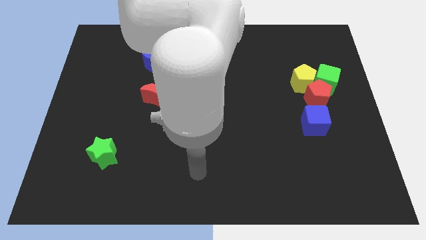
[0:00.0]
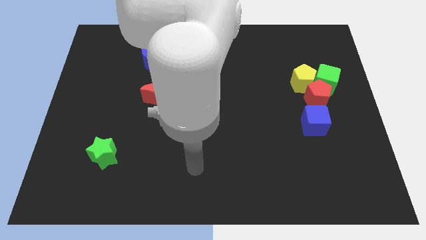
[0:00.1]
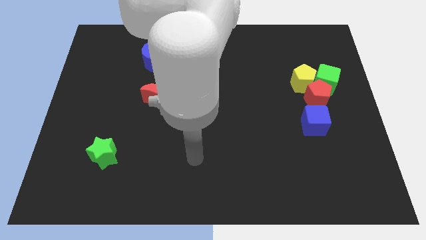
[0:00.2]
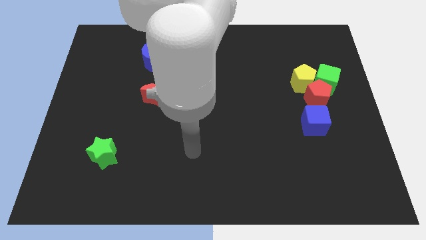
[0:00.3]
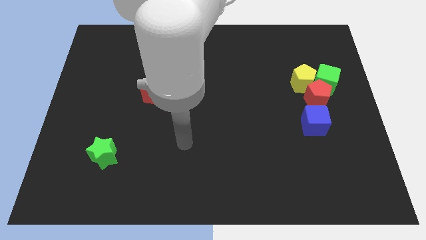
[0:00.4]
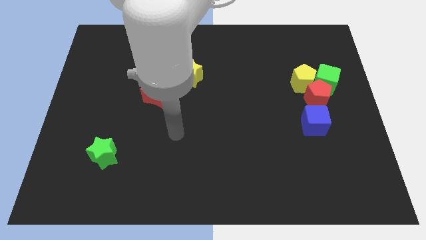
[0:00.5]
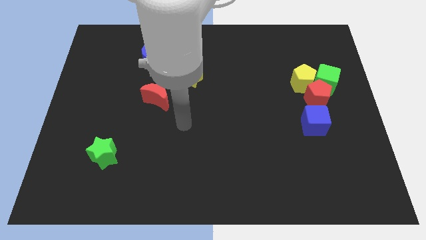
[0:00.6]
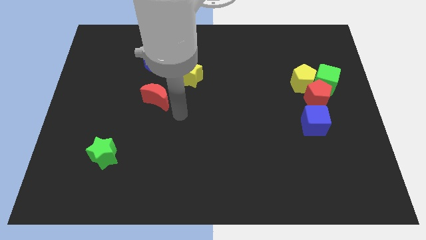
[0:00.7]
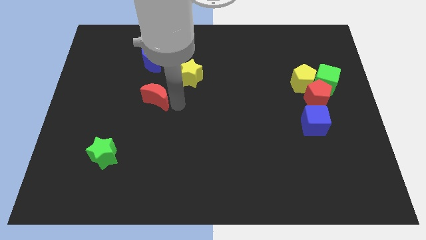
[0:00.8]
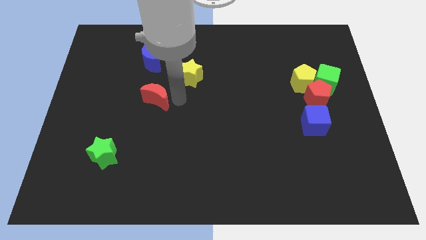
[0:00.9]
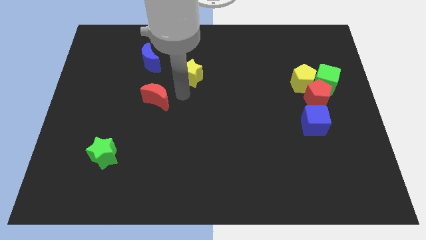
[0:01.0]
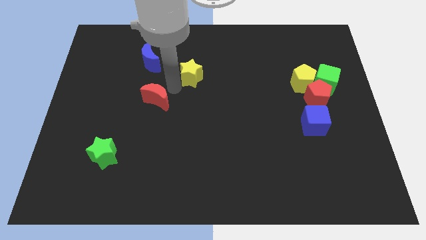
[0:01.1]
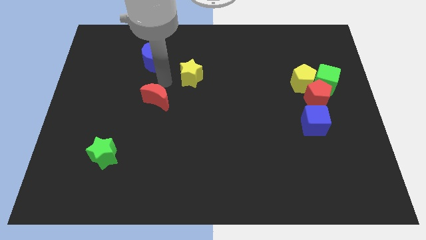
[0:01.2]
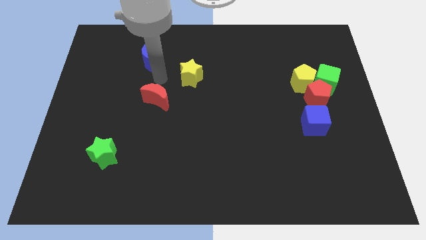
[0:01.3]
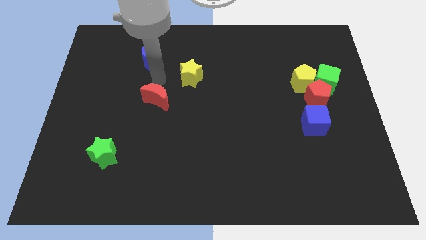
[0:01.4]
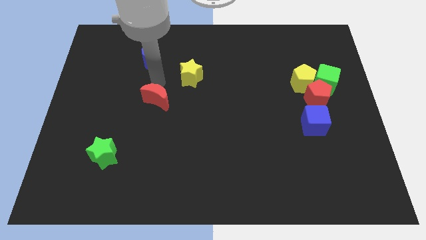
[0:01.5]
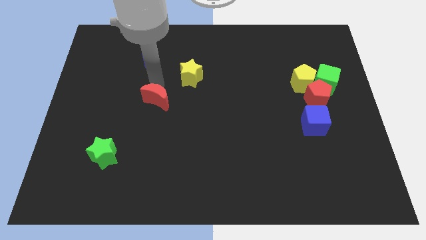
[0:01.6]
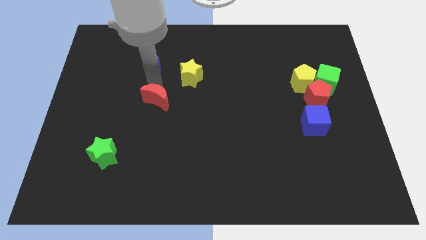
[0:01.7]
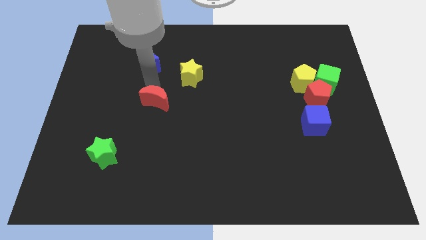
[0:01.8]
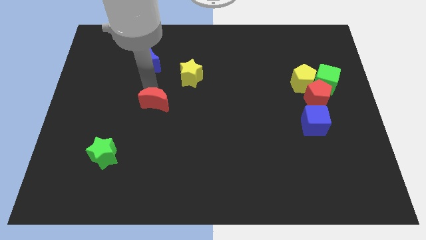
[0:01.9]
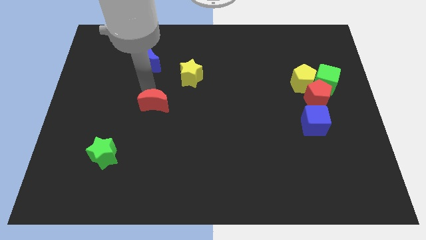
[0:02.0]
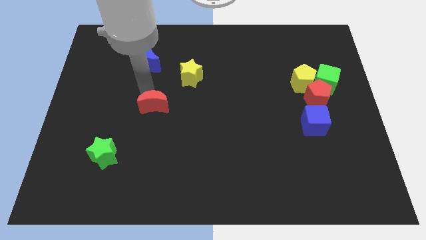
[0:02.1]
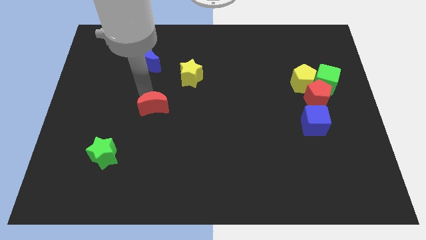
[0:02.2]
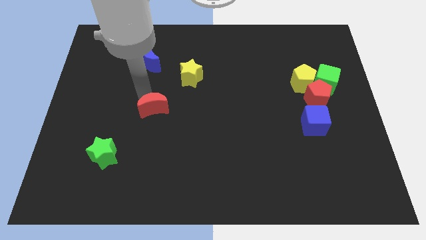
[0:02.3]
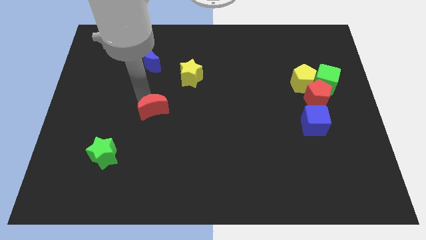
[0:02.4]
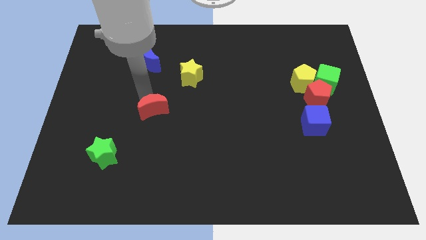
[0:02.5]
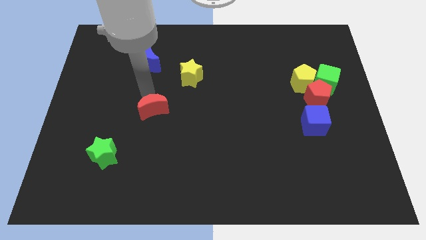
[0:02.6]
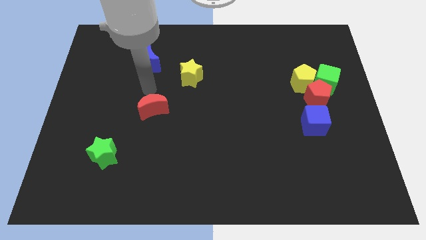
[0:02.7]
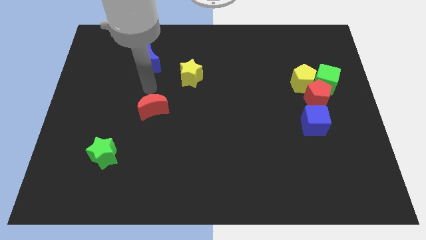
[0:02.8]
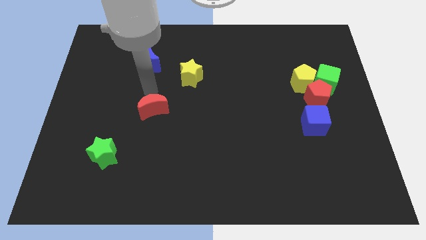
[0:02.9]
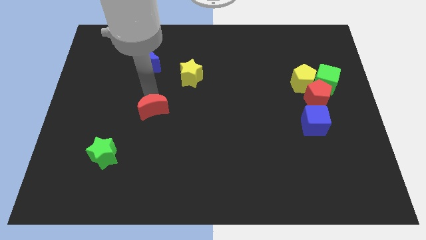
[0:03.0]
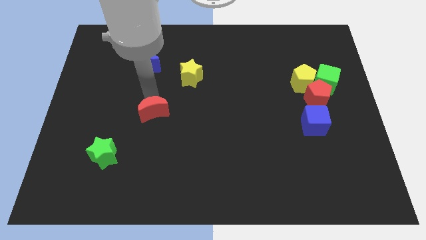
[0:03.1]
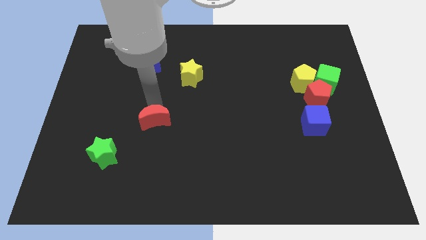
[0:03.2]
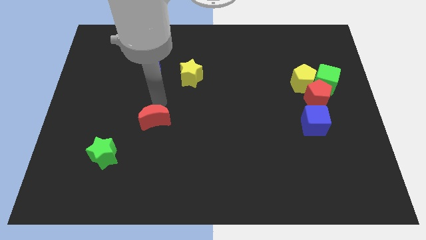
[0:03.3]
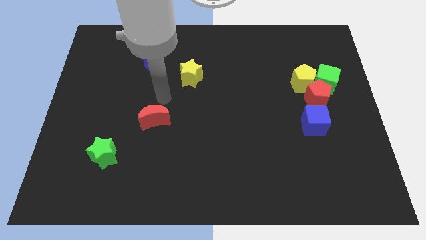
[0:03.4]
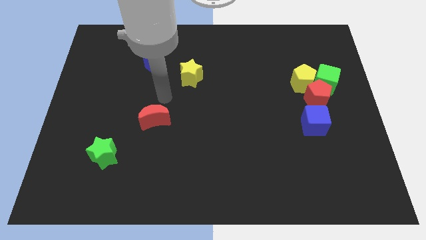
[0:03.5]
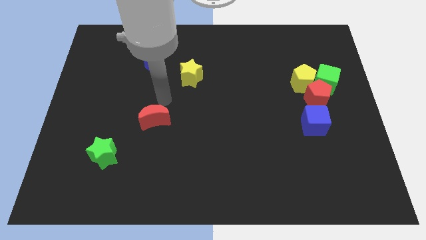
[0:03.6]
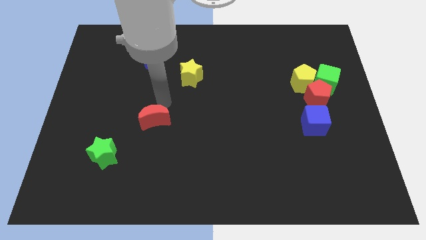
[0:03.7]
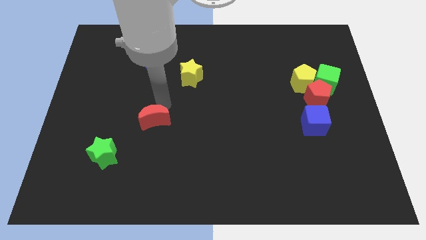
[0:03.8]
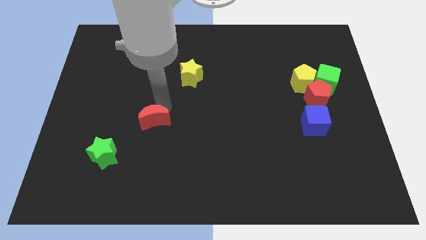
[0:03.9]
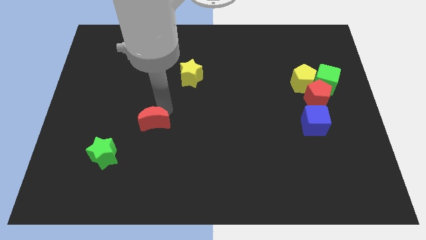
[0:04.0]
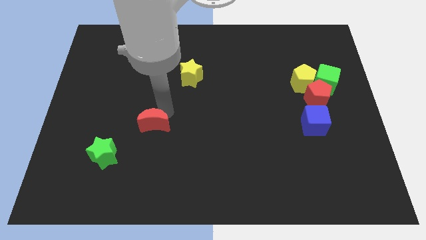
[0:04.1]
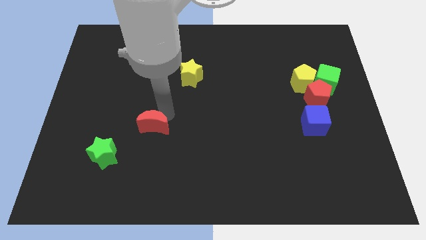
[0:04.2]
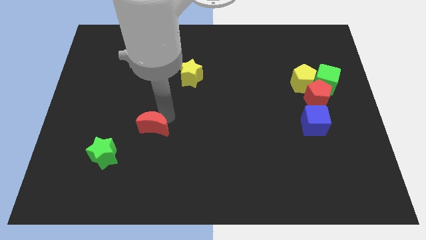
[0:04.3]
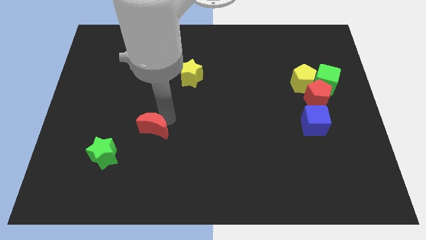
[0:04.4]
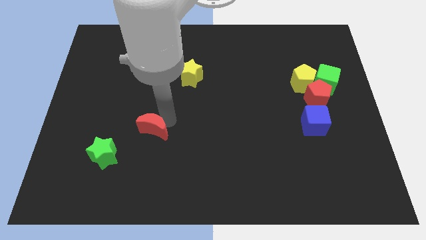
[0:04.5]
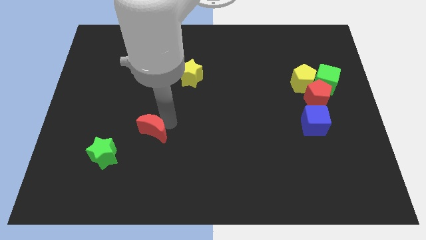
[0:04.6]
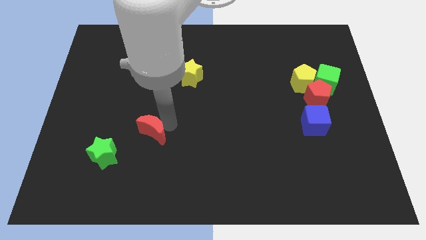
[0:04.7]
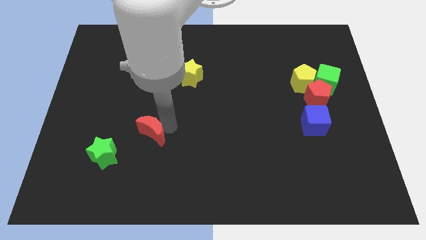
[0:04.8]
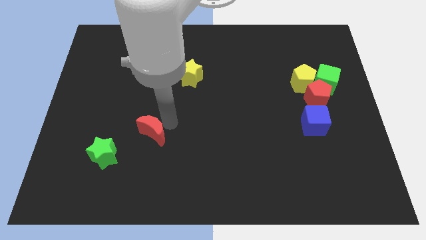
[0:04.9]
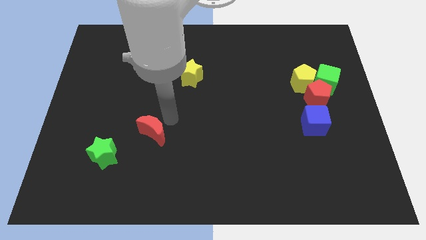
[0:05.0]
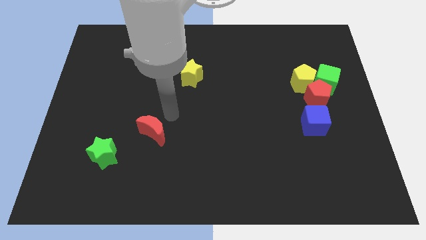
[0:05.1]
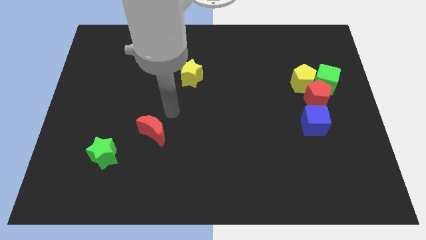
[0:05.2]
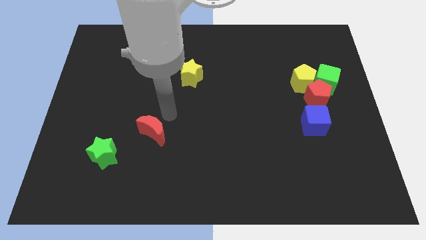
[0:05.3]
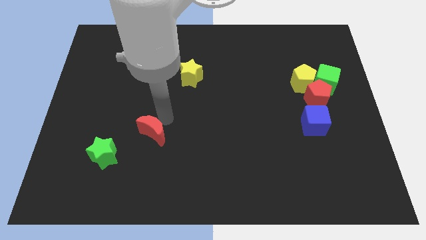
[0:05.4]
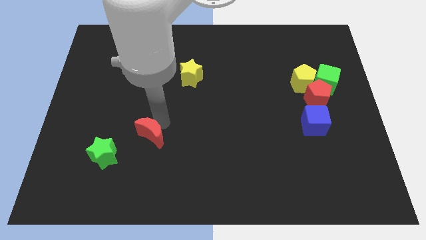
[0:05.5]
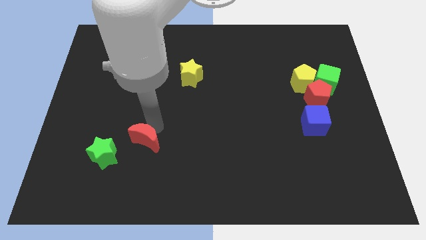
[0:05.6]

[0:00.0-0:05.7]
move the red moon to the right of the green star

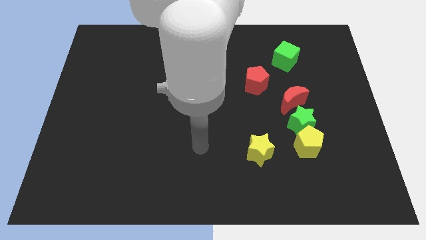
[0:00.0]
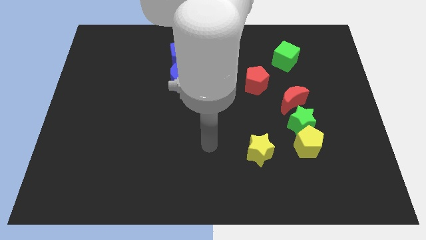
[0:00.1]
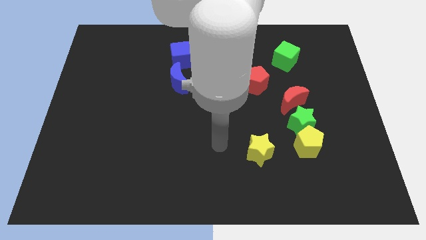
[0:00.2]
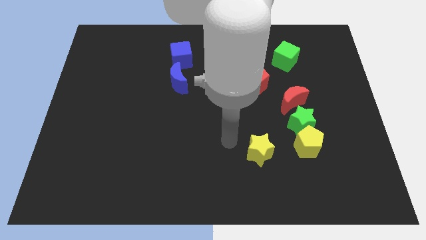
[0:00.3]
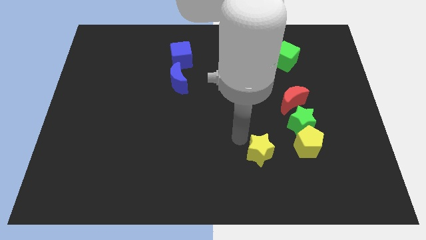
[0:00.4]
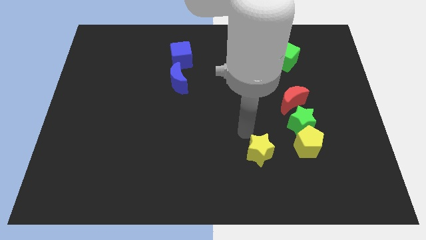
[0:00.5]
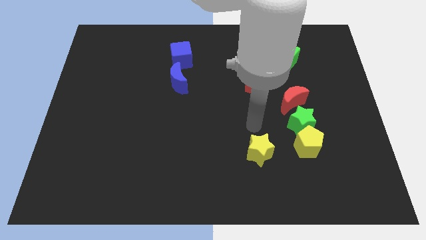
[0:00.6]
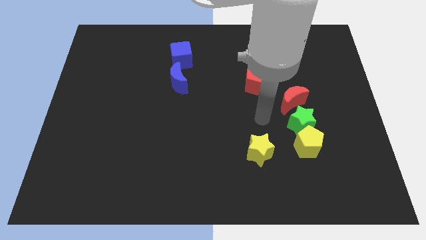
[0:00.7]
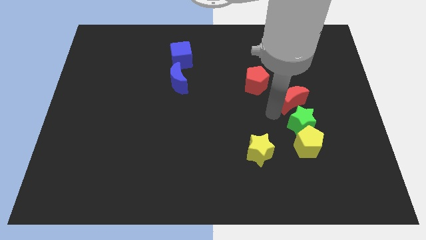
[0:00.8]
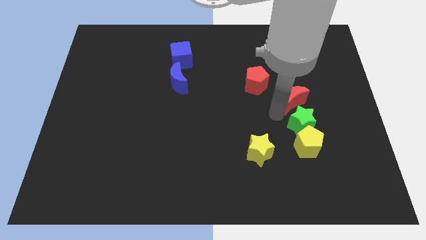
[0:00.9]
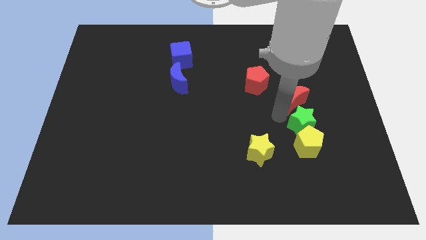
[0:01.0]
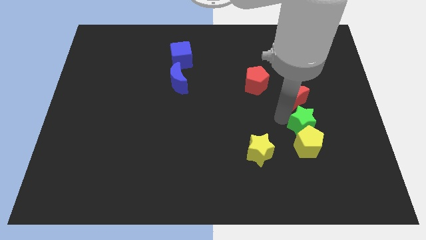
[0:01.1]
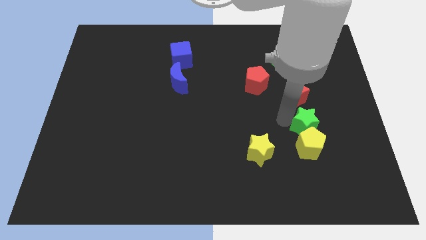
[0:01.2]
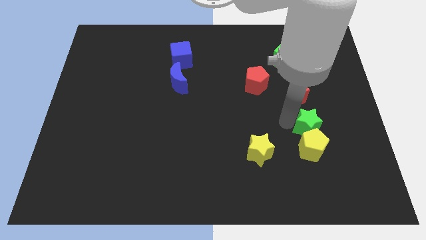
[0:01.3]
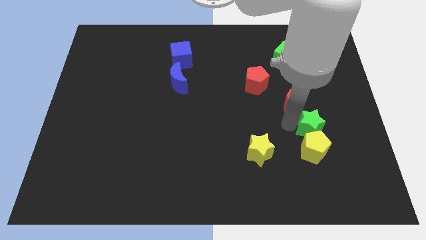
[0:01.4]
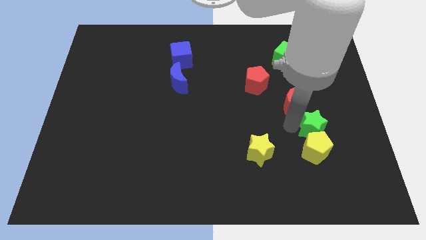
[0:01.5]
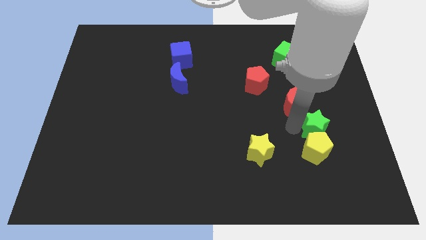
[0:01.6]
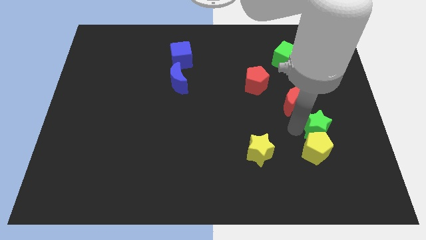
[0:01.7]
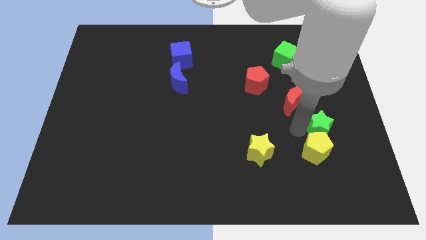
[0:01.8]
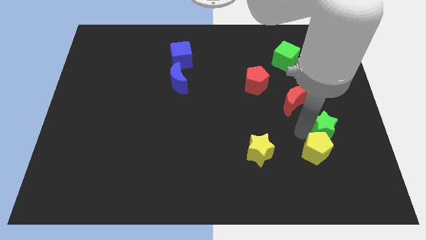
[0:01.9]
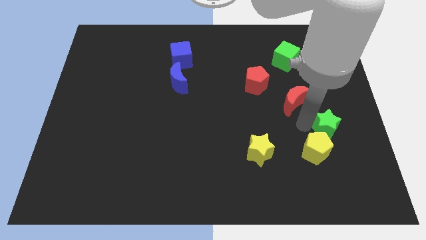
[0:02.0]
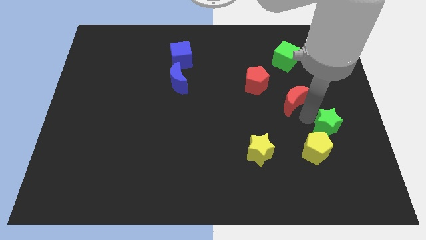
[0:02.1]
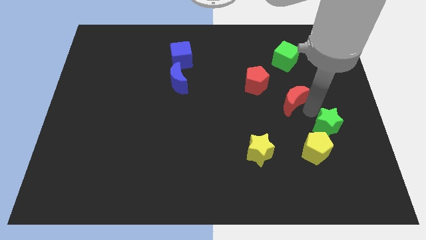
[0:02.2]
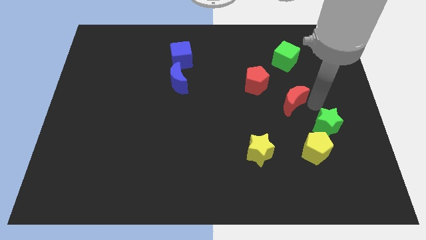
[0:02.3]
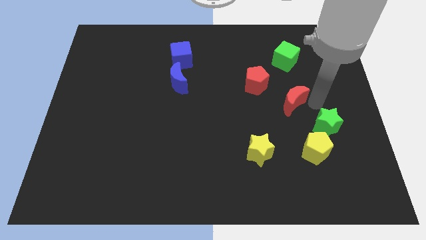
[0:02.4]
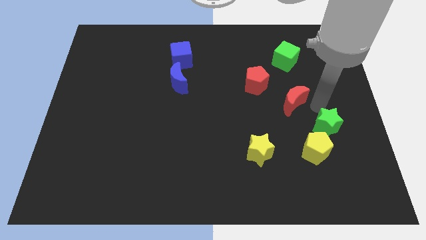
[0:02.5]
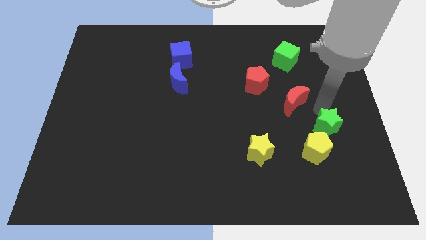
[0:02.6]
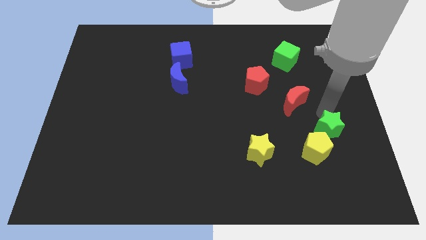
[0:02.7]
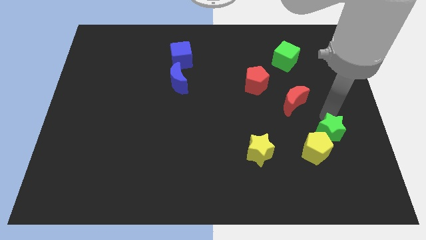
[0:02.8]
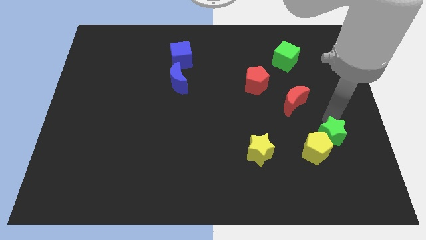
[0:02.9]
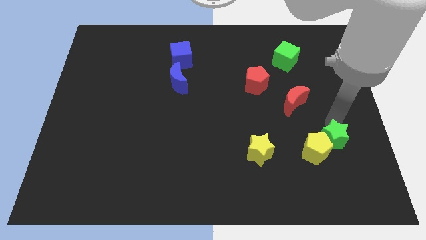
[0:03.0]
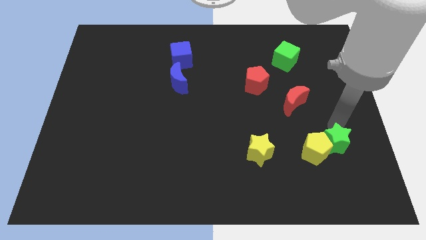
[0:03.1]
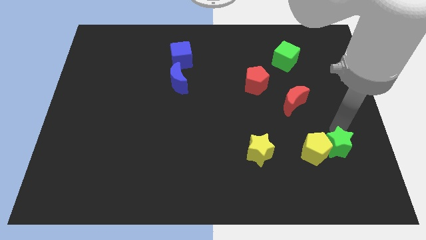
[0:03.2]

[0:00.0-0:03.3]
push the green star to the bottom right side of the yellow pentagon
